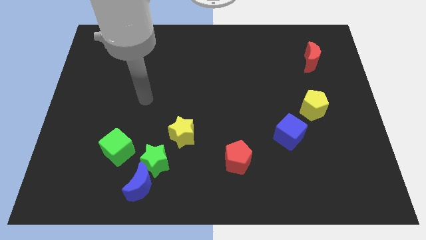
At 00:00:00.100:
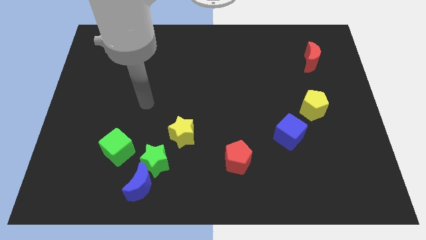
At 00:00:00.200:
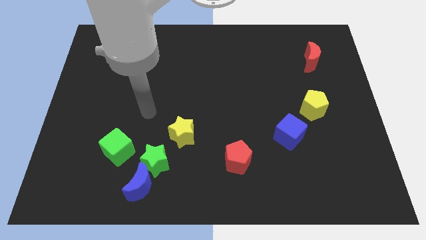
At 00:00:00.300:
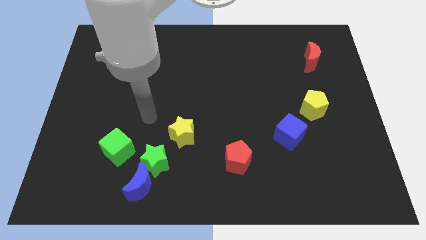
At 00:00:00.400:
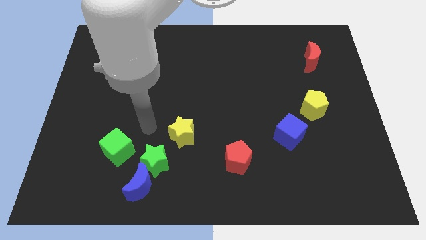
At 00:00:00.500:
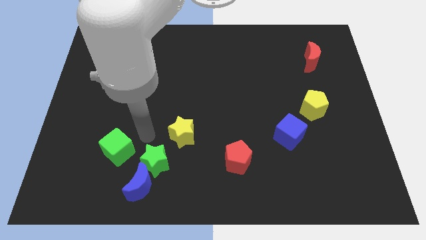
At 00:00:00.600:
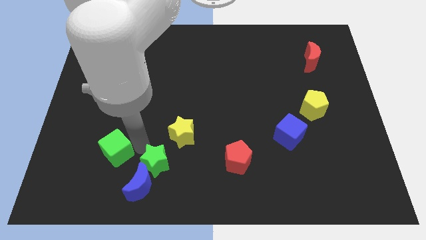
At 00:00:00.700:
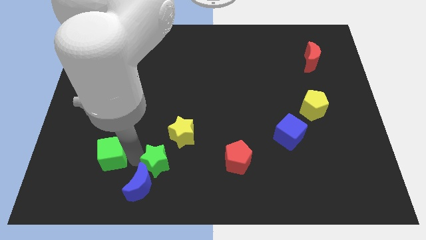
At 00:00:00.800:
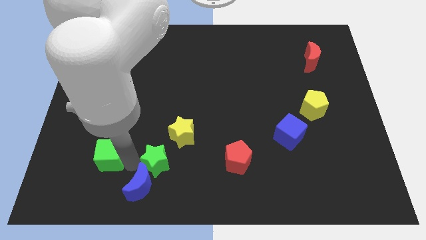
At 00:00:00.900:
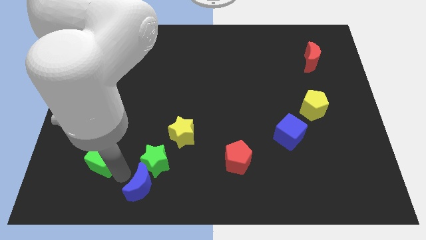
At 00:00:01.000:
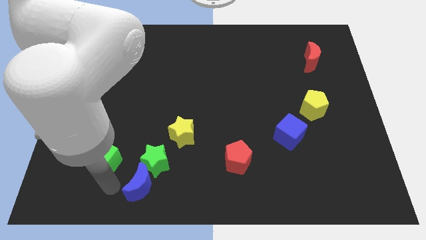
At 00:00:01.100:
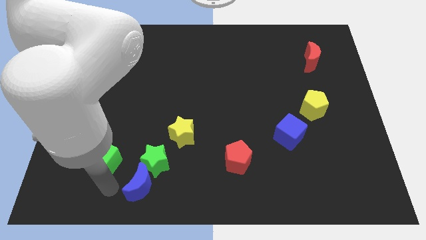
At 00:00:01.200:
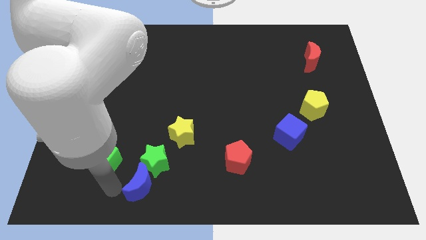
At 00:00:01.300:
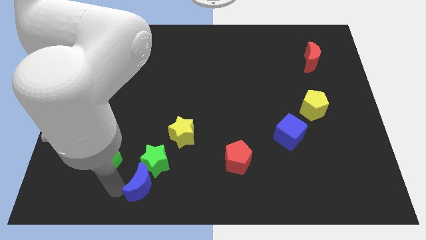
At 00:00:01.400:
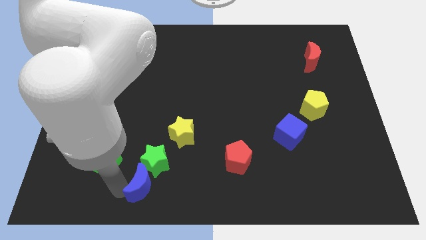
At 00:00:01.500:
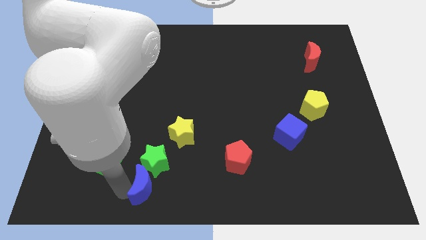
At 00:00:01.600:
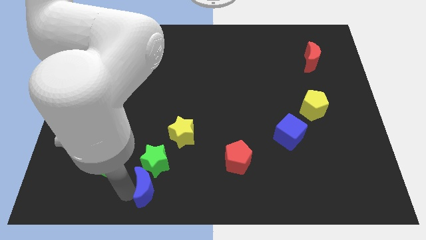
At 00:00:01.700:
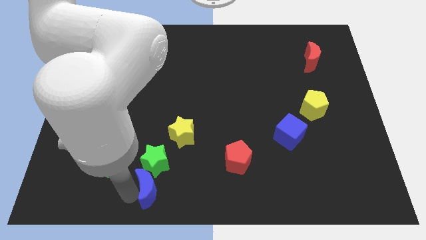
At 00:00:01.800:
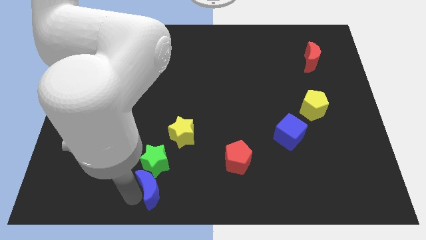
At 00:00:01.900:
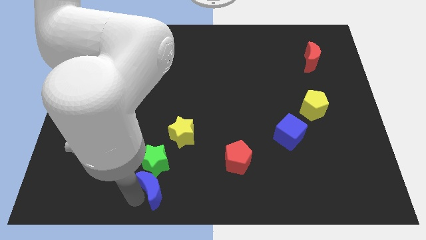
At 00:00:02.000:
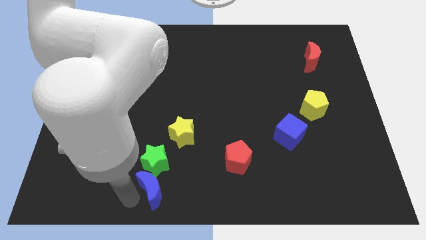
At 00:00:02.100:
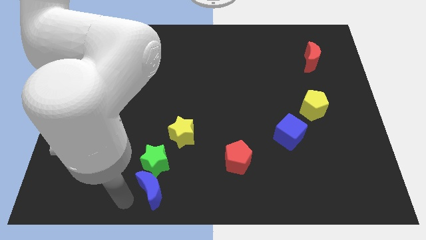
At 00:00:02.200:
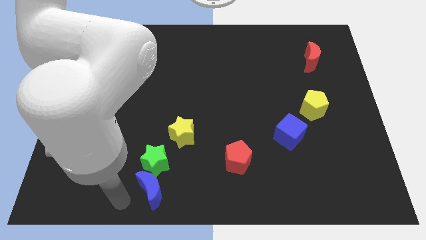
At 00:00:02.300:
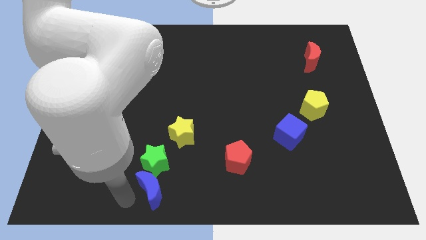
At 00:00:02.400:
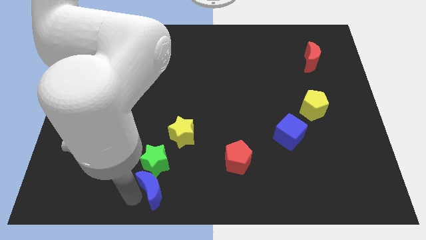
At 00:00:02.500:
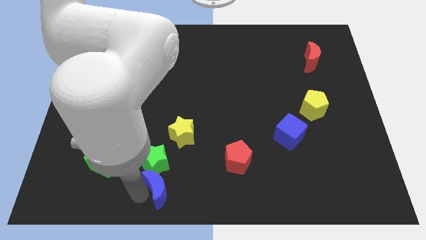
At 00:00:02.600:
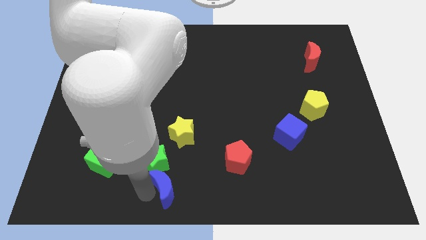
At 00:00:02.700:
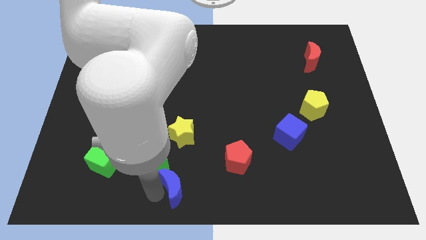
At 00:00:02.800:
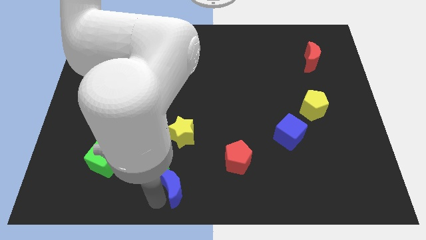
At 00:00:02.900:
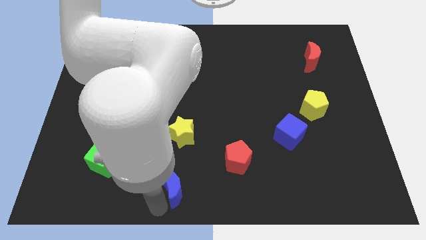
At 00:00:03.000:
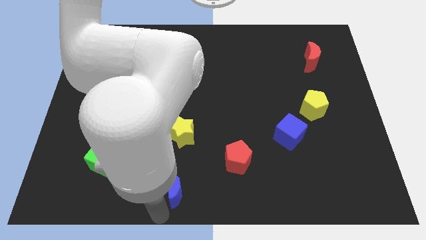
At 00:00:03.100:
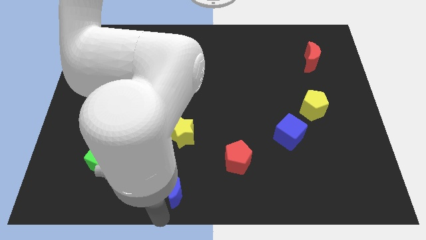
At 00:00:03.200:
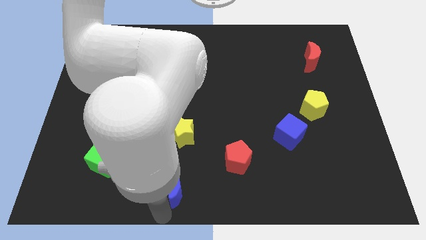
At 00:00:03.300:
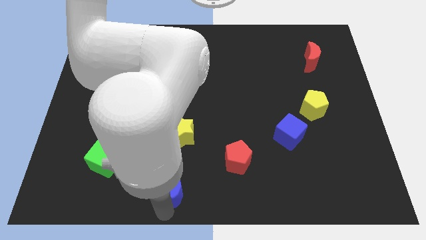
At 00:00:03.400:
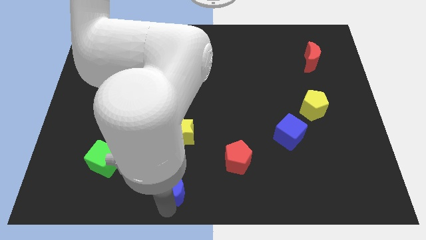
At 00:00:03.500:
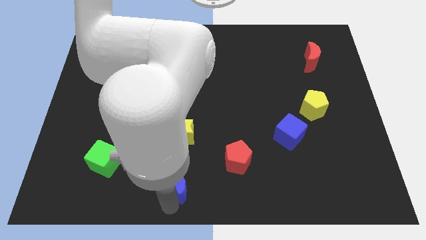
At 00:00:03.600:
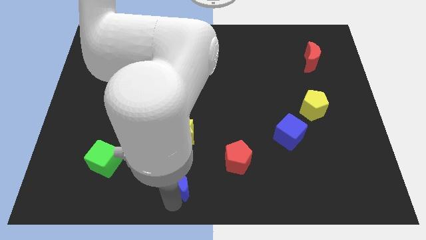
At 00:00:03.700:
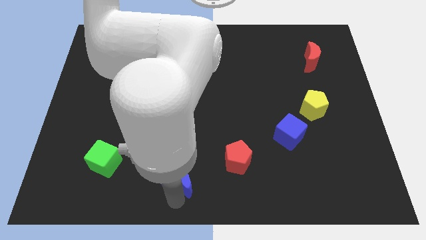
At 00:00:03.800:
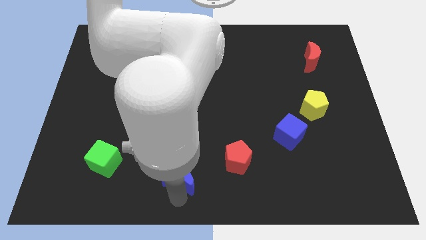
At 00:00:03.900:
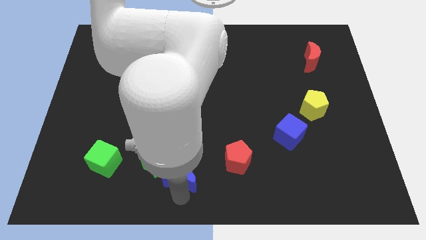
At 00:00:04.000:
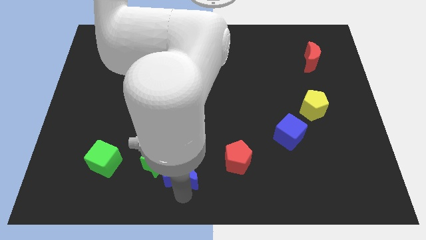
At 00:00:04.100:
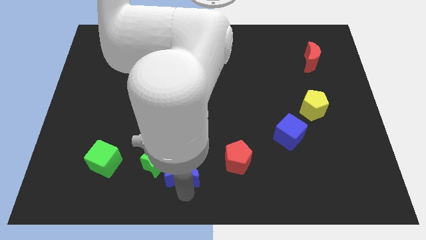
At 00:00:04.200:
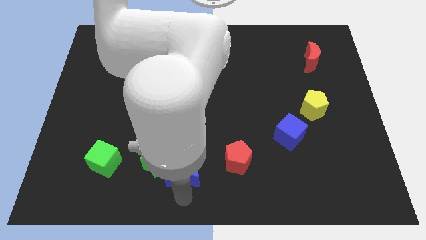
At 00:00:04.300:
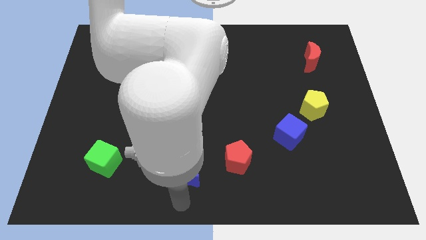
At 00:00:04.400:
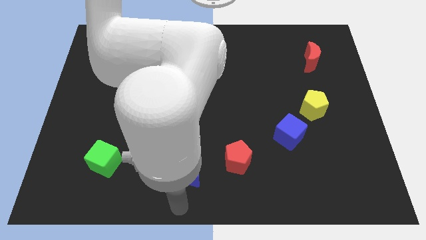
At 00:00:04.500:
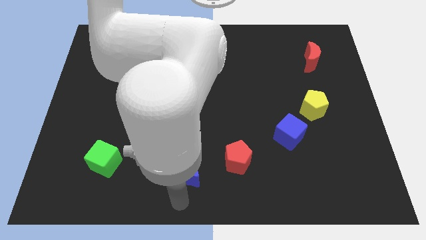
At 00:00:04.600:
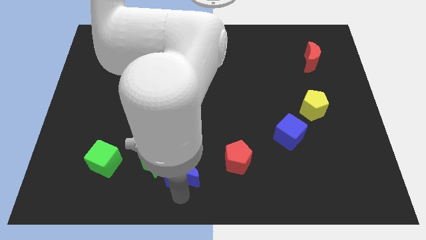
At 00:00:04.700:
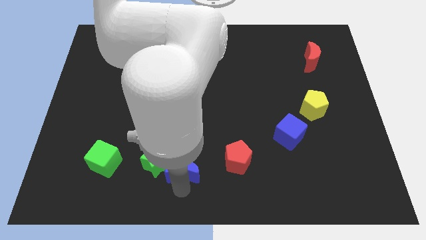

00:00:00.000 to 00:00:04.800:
move the blue moon up and then to the right slightly

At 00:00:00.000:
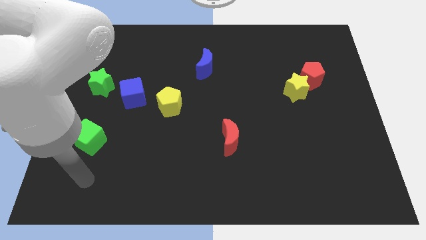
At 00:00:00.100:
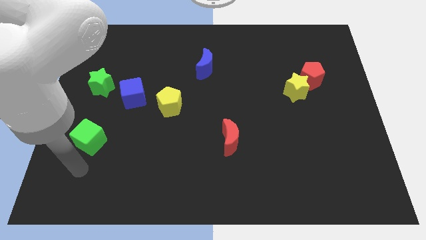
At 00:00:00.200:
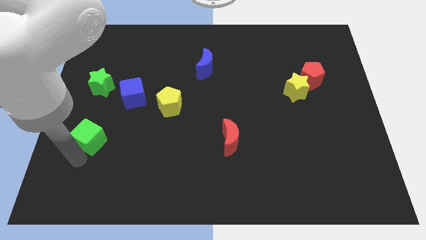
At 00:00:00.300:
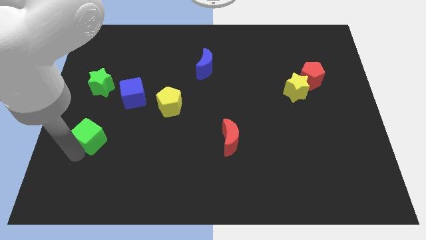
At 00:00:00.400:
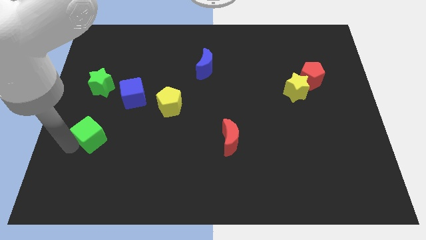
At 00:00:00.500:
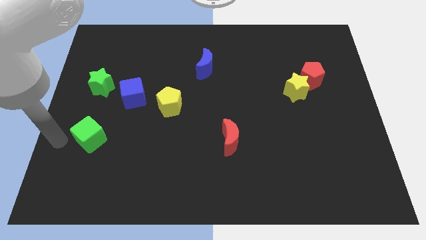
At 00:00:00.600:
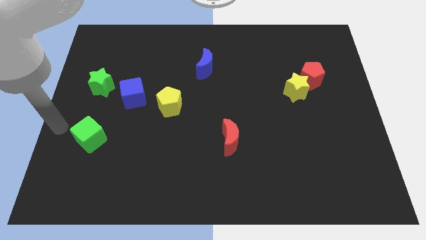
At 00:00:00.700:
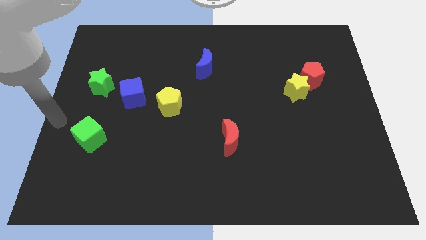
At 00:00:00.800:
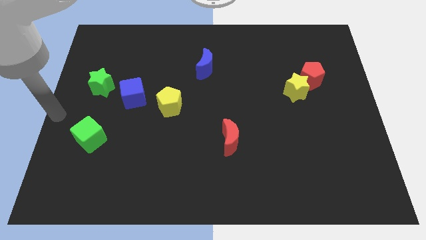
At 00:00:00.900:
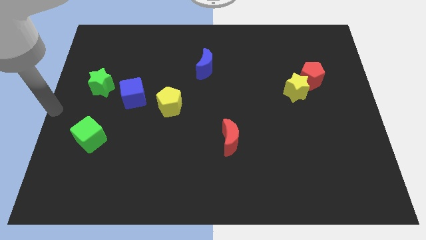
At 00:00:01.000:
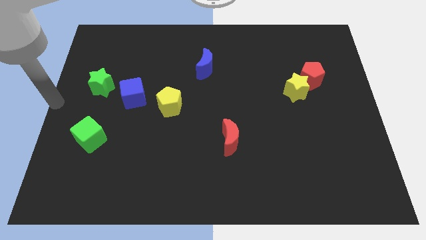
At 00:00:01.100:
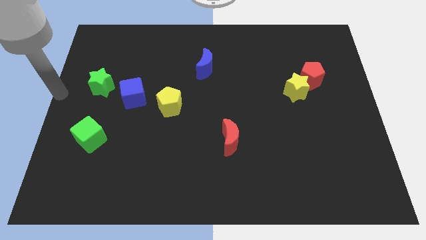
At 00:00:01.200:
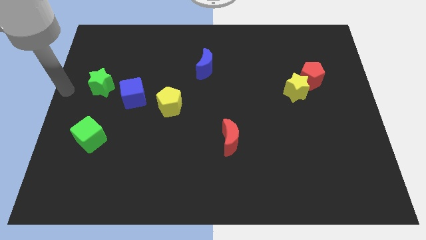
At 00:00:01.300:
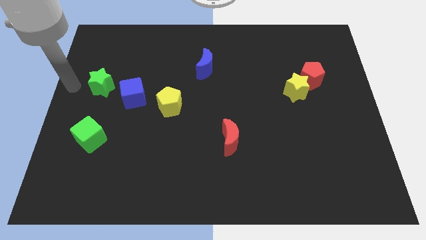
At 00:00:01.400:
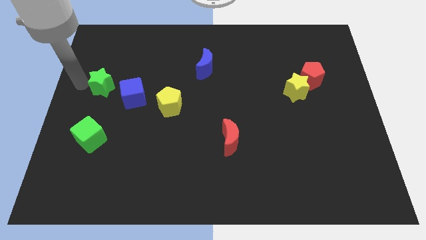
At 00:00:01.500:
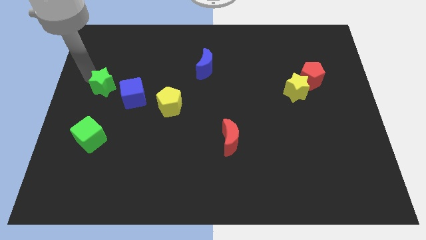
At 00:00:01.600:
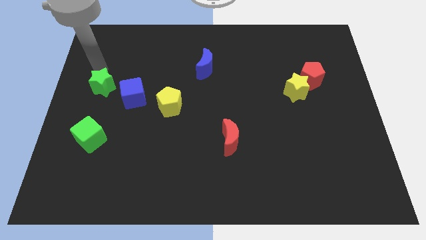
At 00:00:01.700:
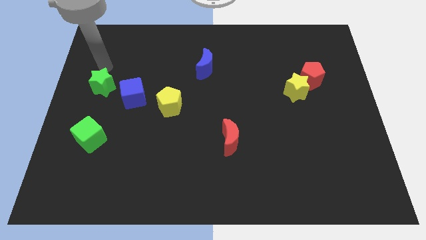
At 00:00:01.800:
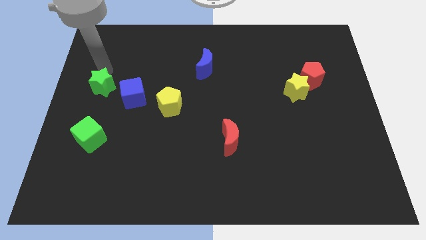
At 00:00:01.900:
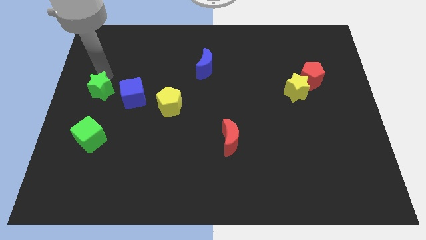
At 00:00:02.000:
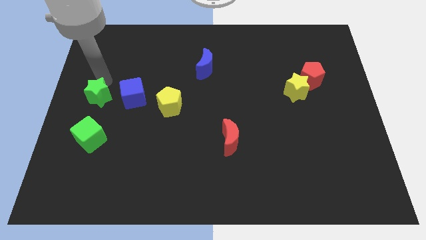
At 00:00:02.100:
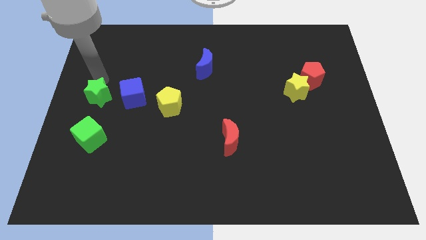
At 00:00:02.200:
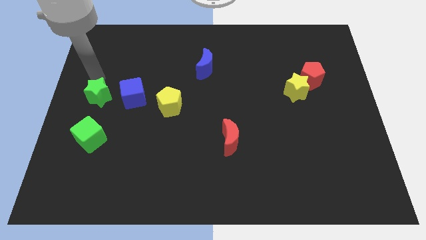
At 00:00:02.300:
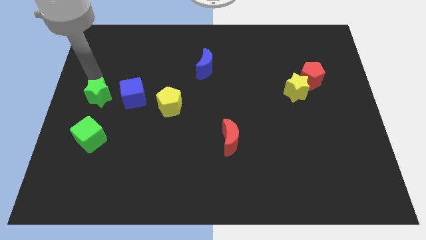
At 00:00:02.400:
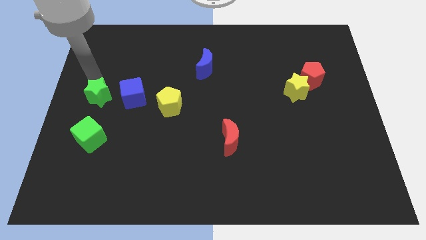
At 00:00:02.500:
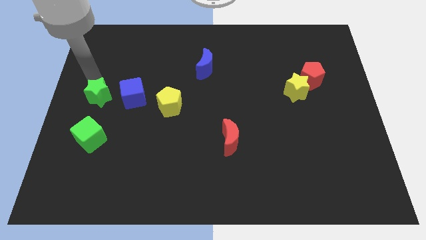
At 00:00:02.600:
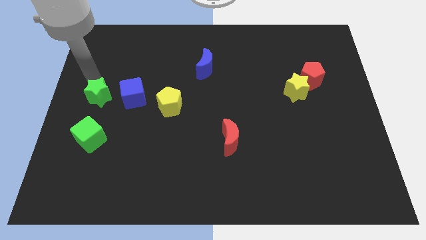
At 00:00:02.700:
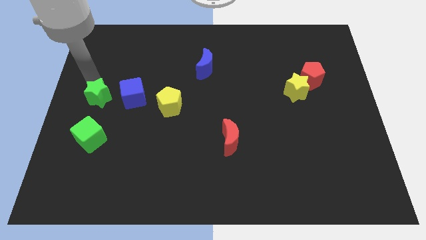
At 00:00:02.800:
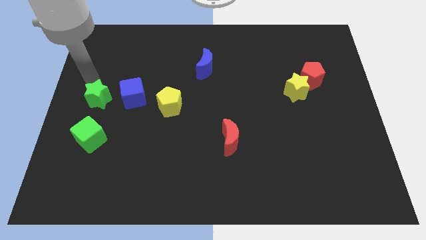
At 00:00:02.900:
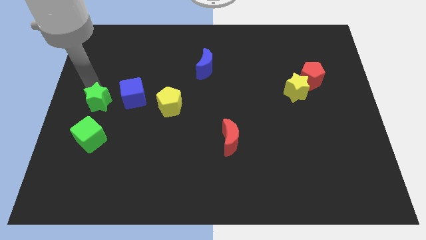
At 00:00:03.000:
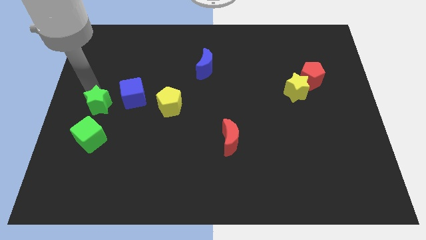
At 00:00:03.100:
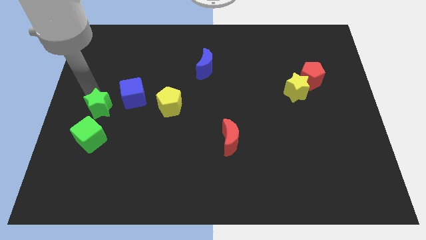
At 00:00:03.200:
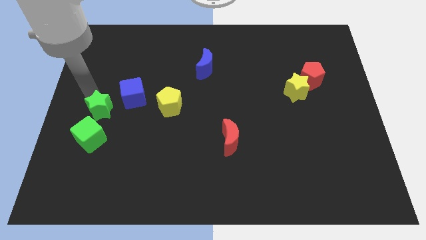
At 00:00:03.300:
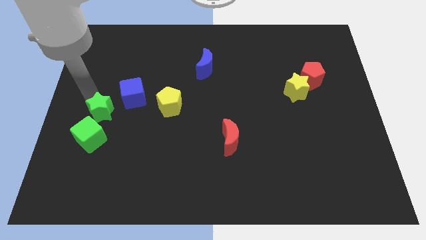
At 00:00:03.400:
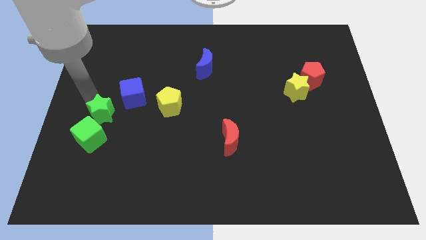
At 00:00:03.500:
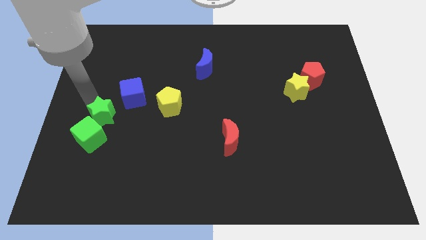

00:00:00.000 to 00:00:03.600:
move the green star somewhat downwards and then right
